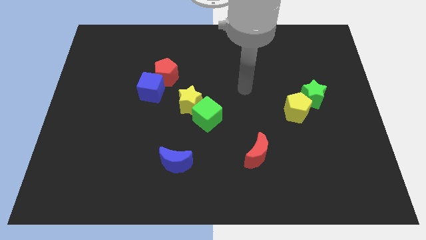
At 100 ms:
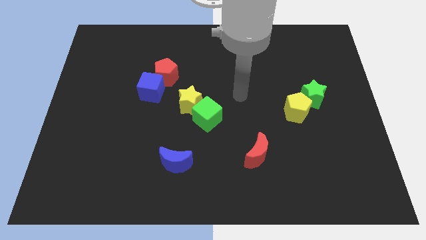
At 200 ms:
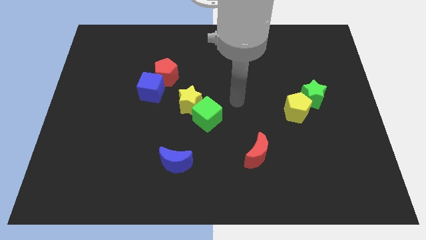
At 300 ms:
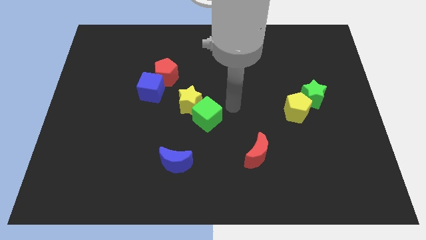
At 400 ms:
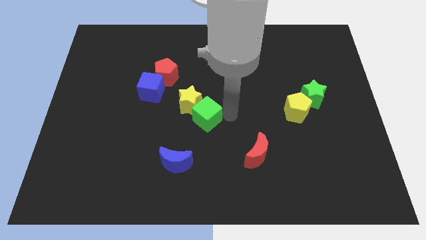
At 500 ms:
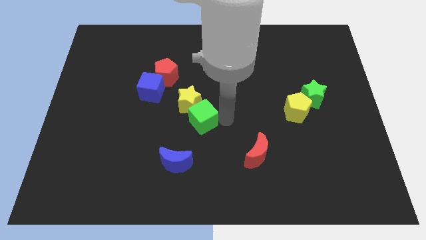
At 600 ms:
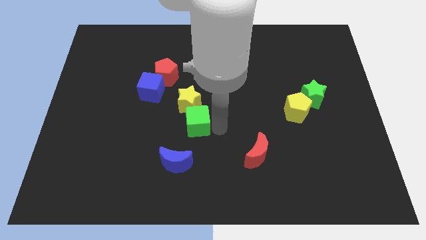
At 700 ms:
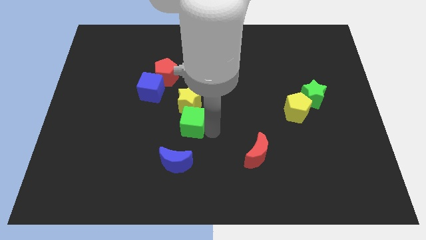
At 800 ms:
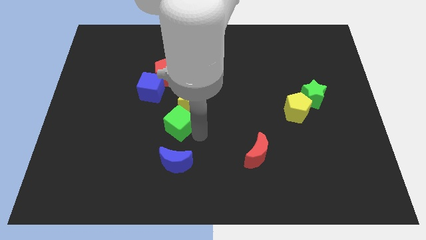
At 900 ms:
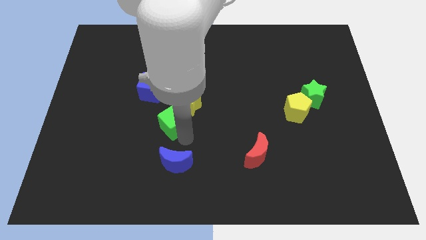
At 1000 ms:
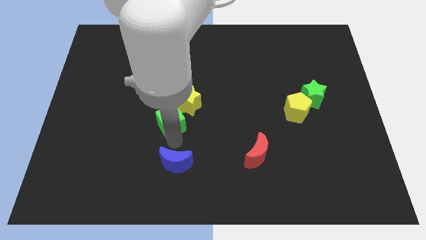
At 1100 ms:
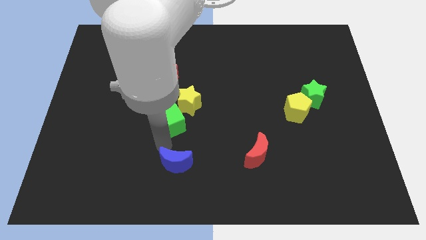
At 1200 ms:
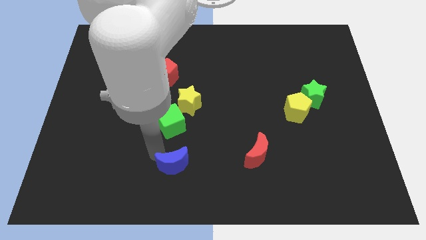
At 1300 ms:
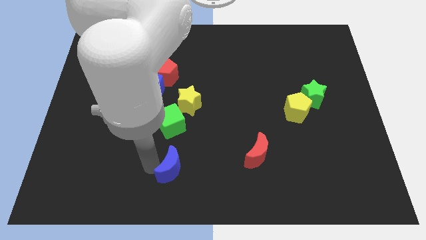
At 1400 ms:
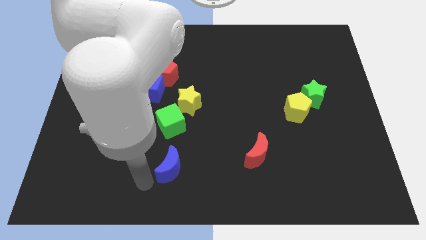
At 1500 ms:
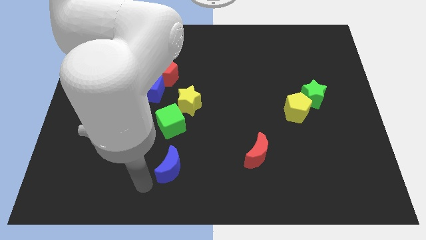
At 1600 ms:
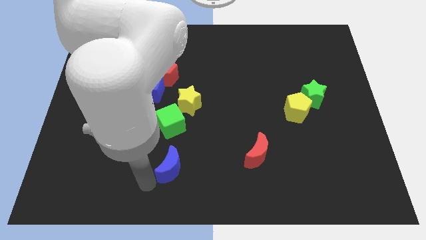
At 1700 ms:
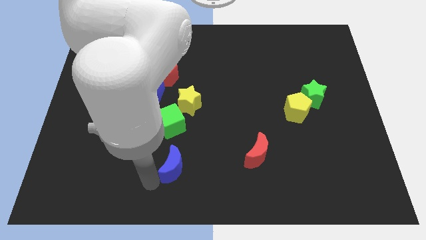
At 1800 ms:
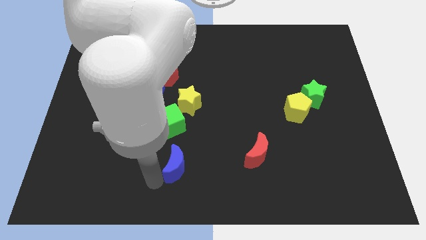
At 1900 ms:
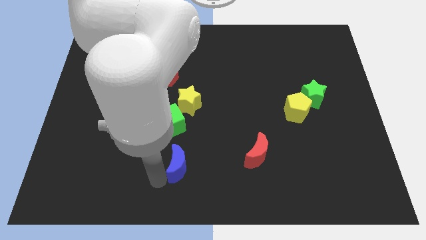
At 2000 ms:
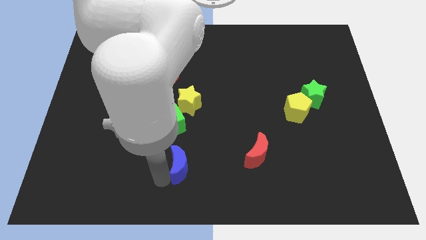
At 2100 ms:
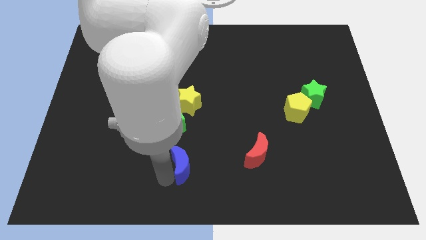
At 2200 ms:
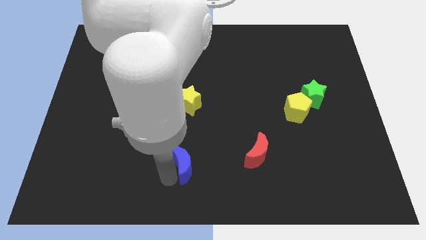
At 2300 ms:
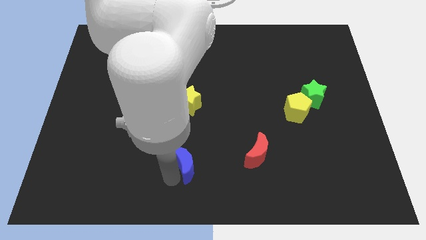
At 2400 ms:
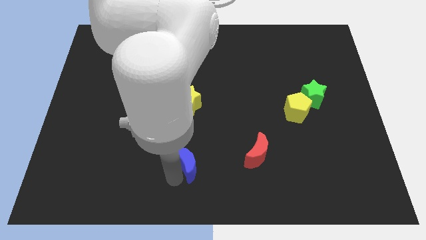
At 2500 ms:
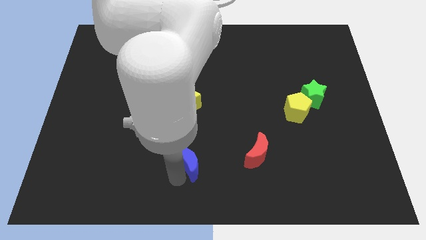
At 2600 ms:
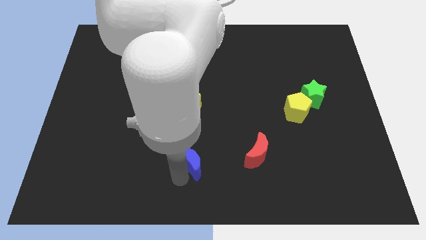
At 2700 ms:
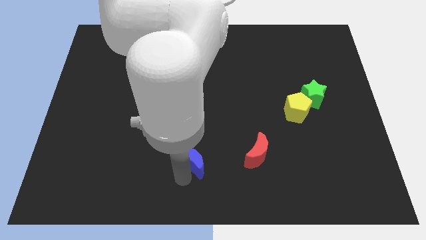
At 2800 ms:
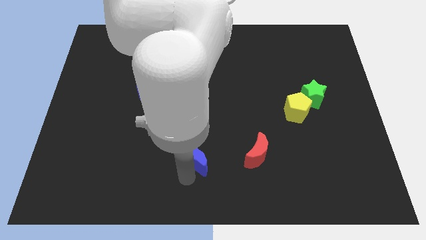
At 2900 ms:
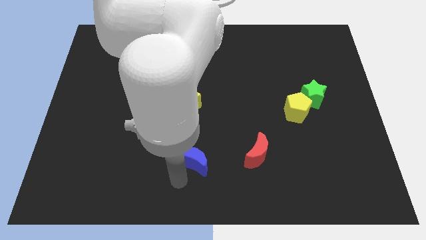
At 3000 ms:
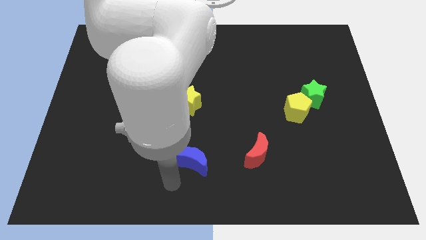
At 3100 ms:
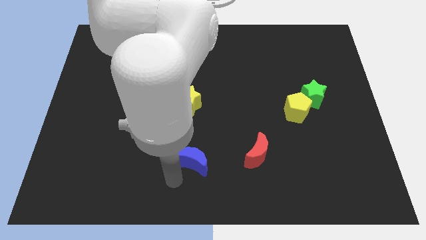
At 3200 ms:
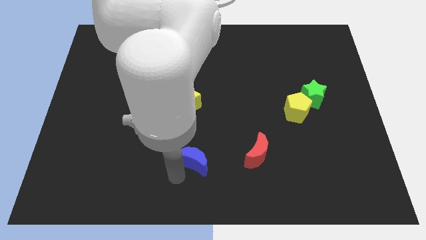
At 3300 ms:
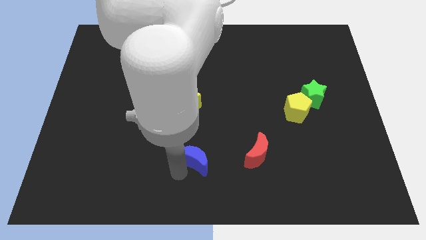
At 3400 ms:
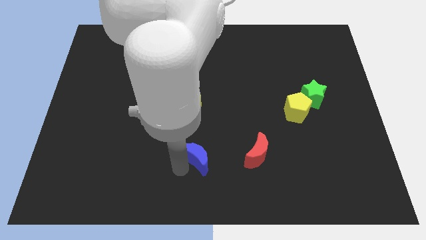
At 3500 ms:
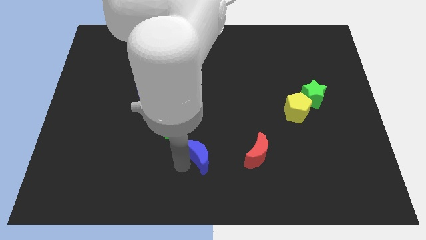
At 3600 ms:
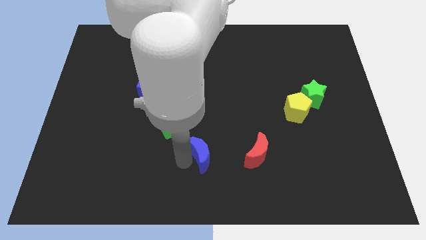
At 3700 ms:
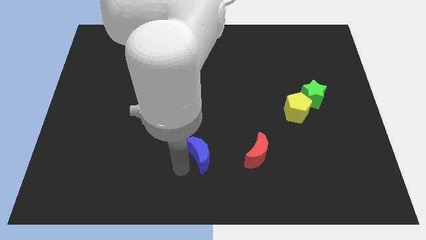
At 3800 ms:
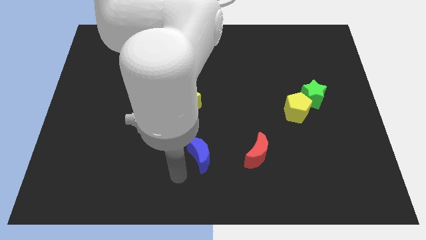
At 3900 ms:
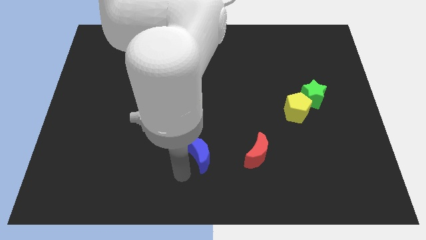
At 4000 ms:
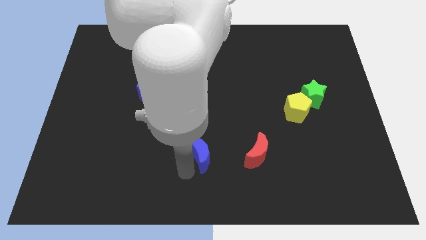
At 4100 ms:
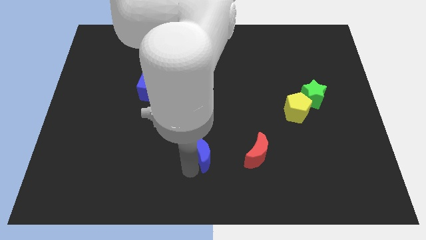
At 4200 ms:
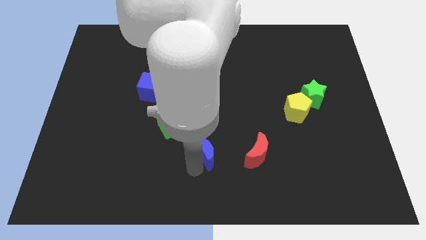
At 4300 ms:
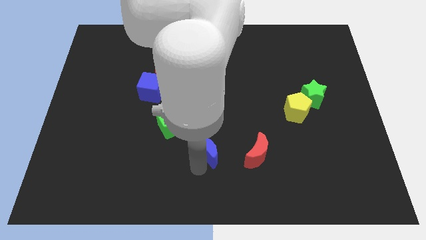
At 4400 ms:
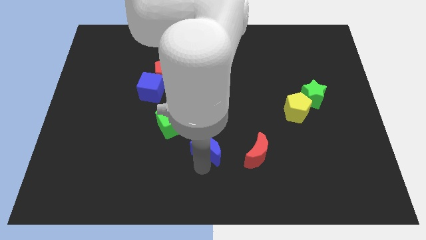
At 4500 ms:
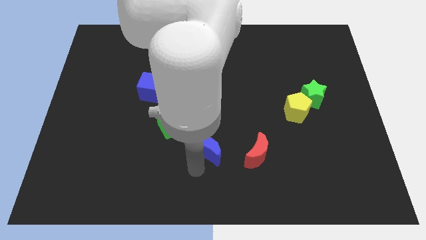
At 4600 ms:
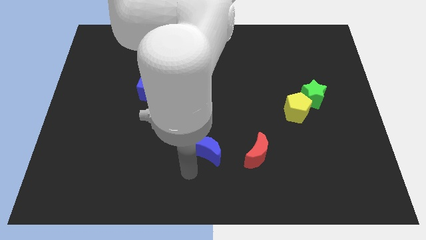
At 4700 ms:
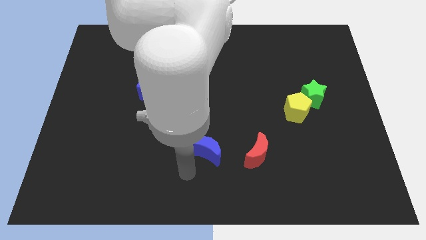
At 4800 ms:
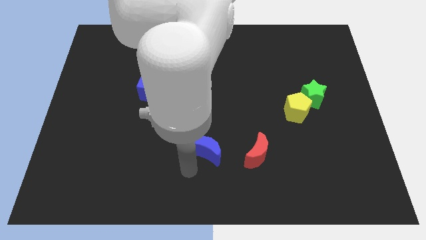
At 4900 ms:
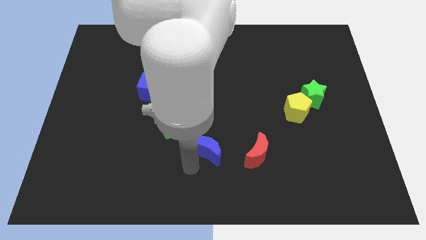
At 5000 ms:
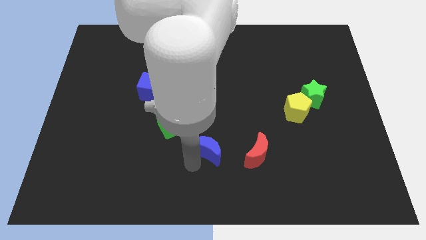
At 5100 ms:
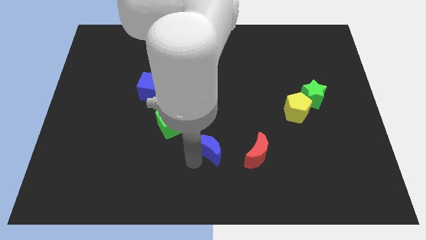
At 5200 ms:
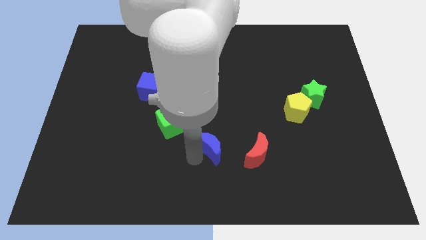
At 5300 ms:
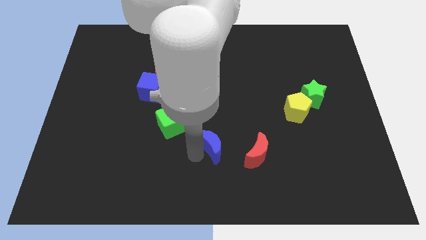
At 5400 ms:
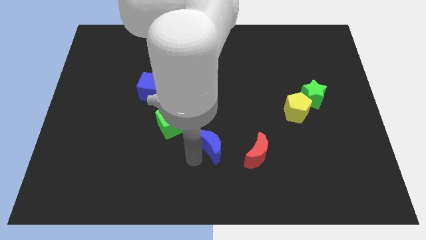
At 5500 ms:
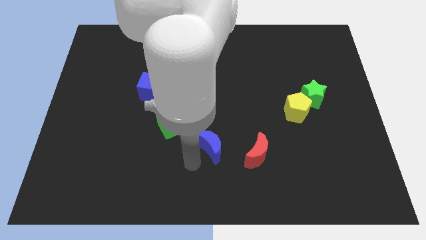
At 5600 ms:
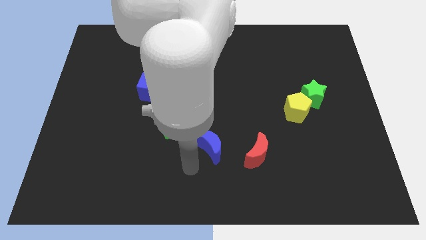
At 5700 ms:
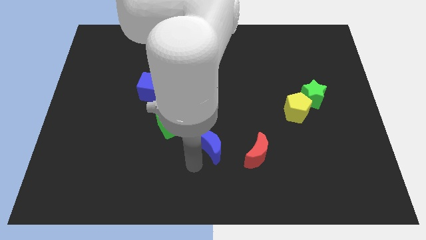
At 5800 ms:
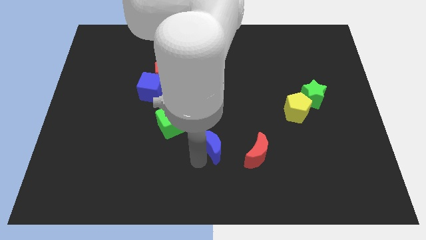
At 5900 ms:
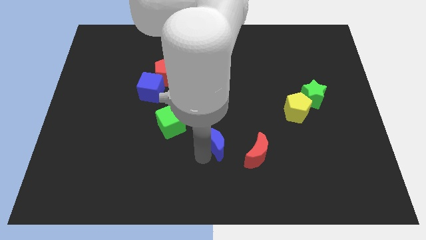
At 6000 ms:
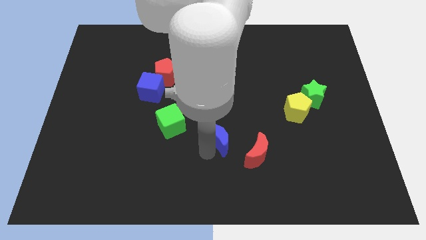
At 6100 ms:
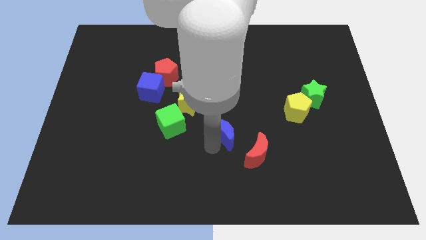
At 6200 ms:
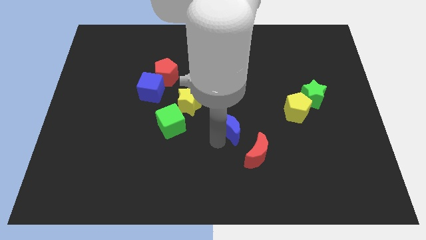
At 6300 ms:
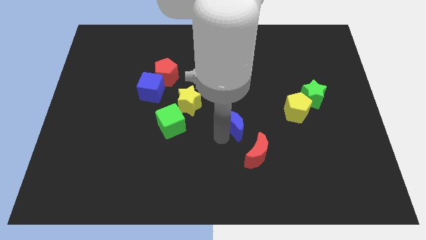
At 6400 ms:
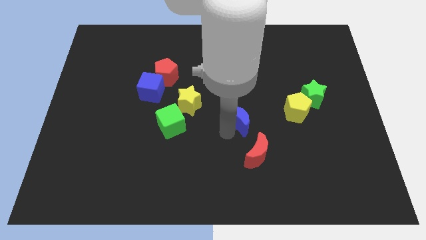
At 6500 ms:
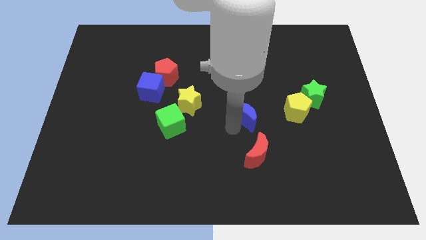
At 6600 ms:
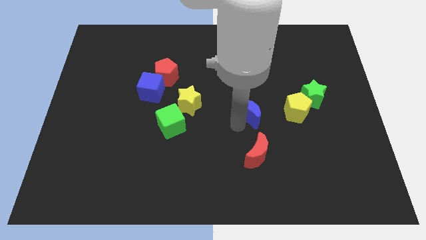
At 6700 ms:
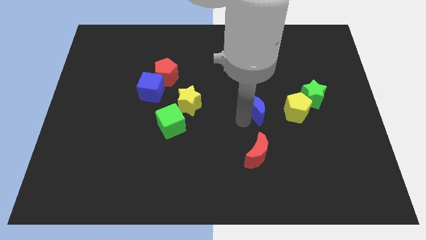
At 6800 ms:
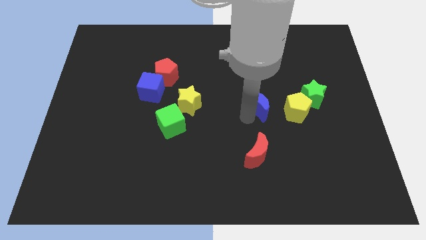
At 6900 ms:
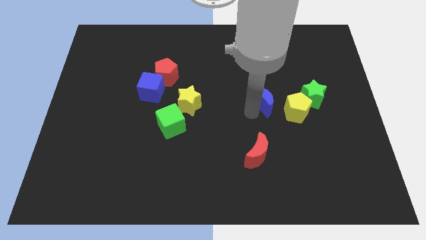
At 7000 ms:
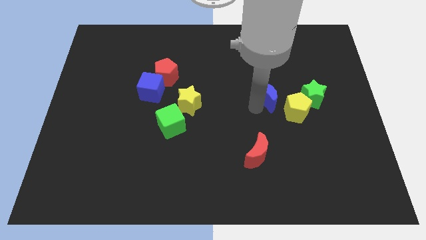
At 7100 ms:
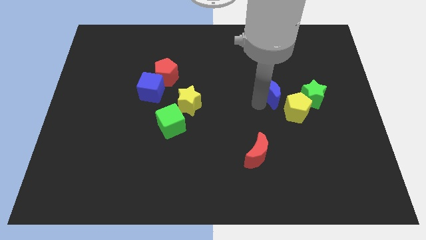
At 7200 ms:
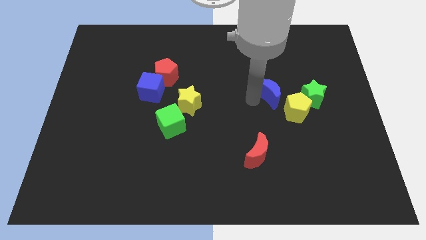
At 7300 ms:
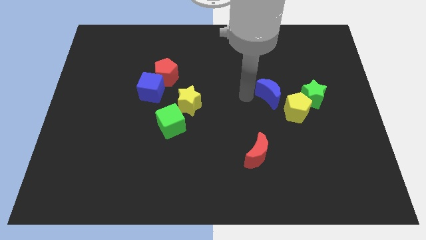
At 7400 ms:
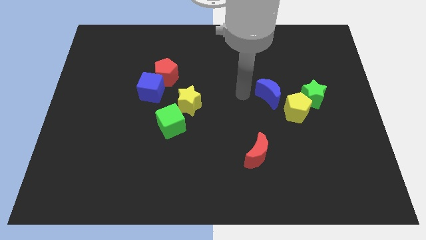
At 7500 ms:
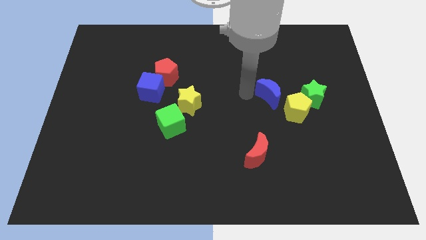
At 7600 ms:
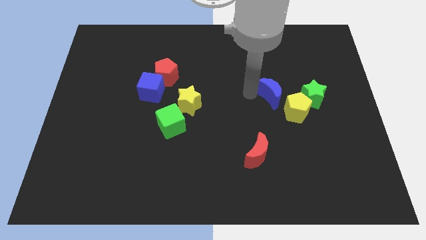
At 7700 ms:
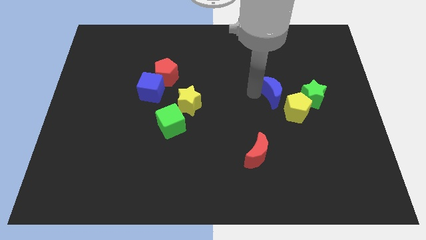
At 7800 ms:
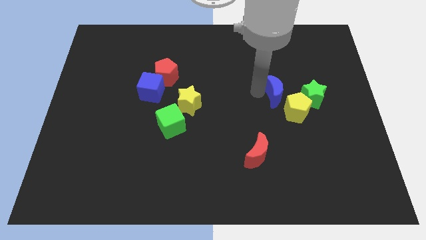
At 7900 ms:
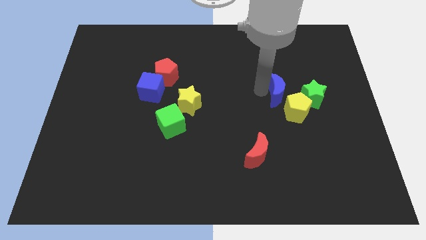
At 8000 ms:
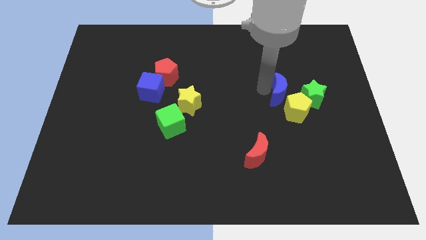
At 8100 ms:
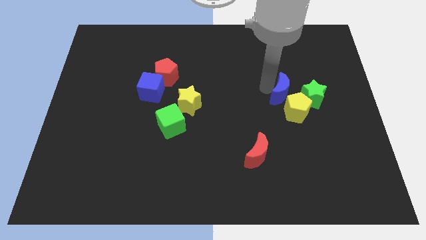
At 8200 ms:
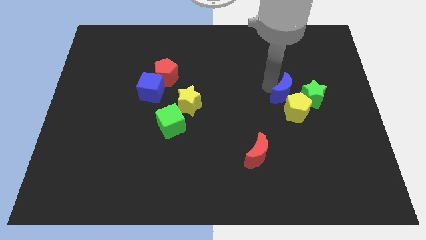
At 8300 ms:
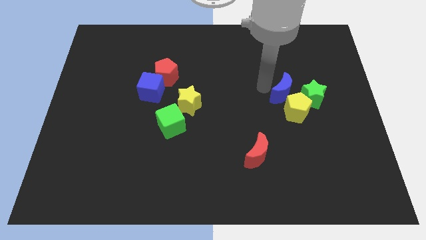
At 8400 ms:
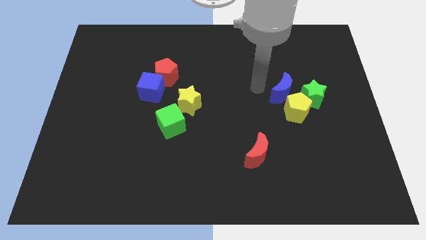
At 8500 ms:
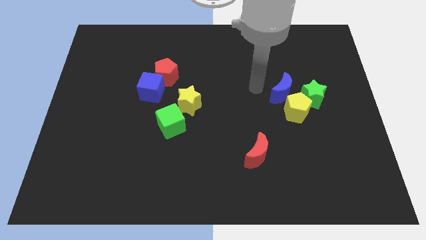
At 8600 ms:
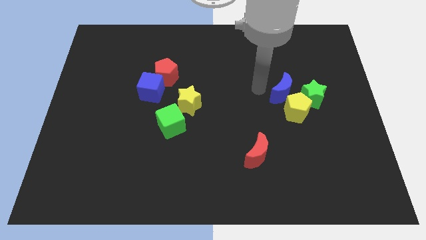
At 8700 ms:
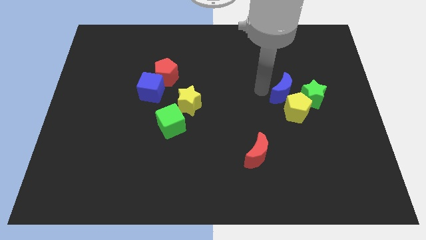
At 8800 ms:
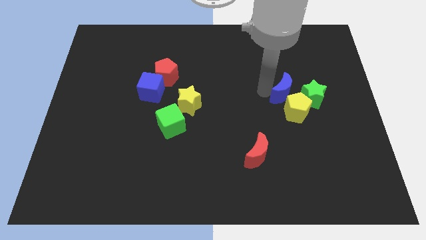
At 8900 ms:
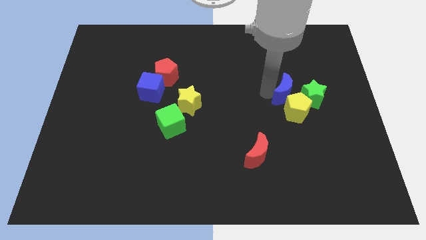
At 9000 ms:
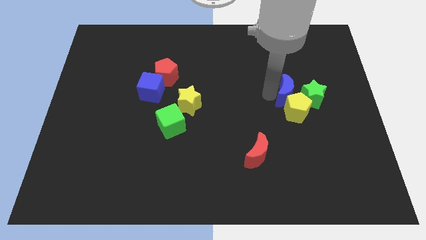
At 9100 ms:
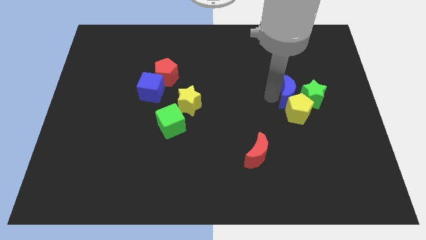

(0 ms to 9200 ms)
put the blue moon next to the green star
